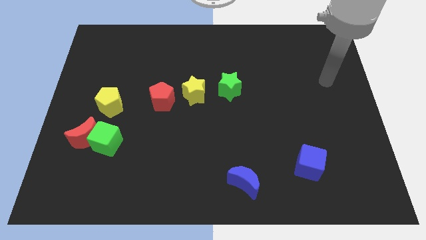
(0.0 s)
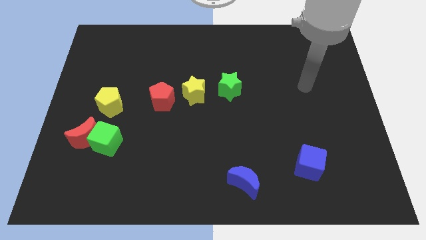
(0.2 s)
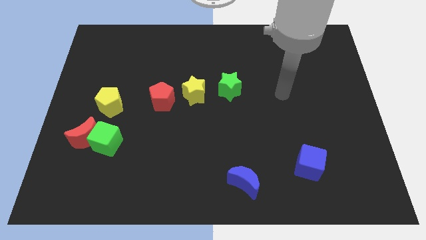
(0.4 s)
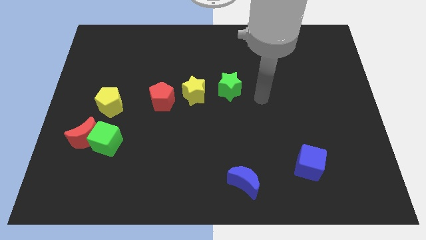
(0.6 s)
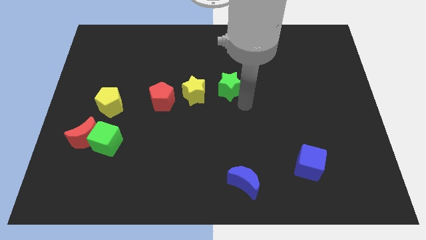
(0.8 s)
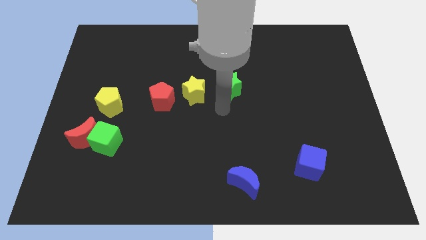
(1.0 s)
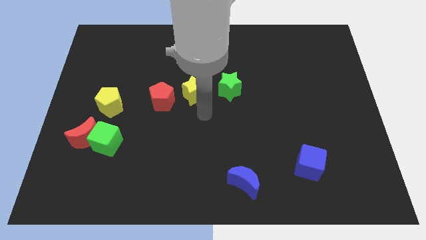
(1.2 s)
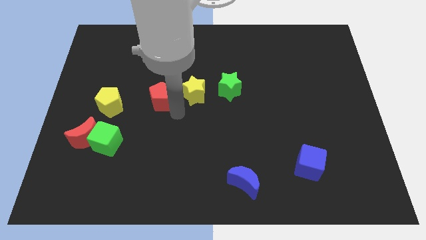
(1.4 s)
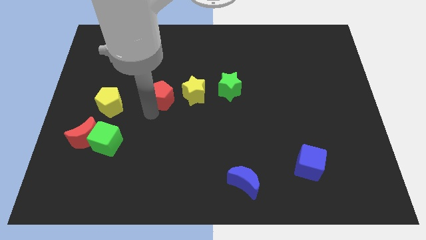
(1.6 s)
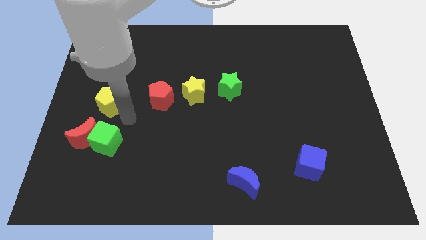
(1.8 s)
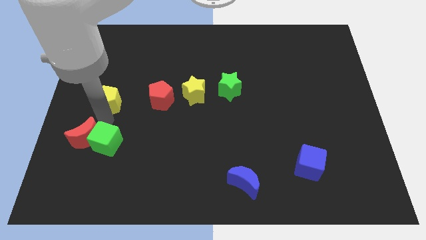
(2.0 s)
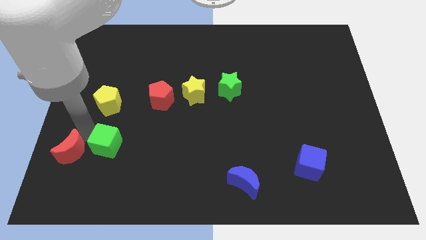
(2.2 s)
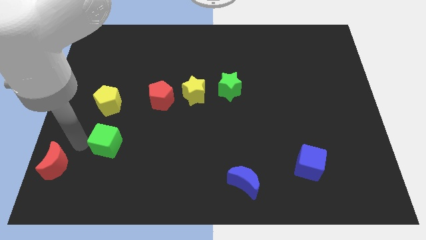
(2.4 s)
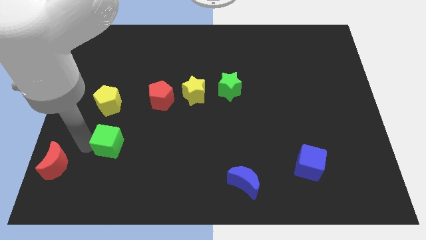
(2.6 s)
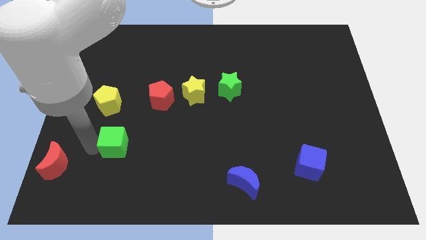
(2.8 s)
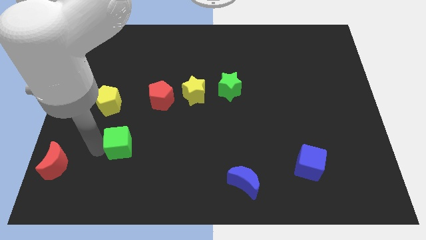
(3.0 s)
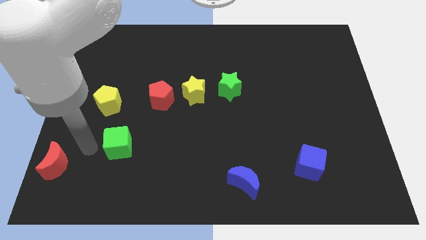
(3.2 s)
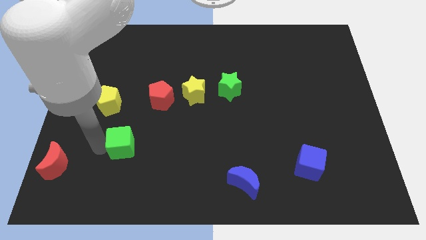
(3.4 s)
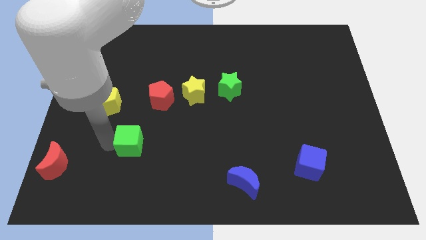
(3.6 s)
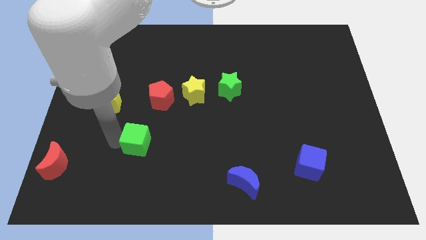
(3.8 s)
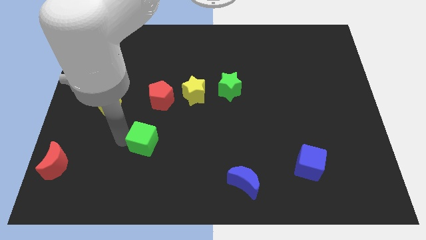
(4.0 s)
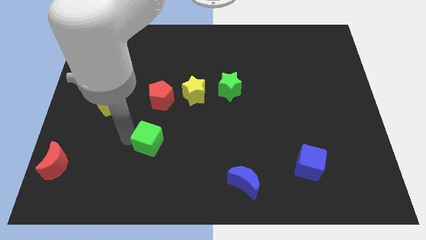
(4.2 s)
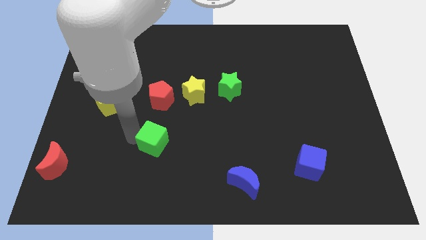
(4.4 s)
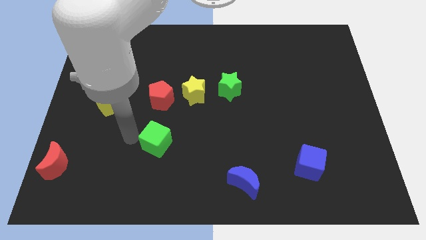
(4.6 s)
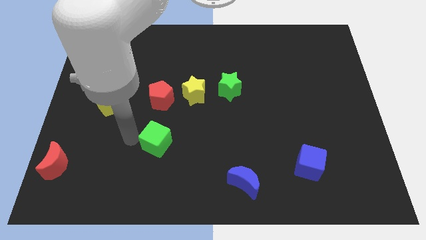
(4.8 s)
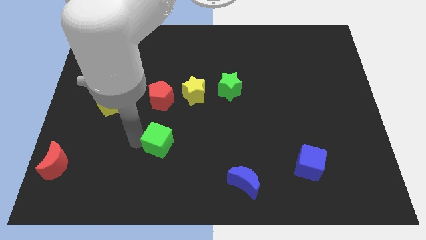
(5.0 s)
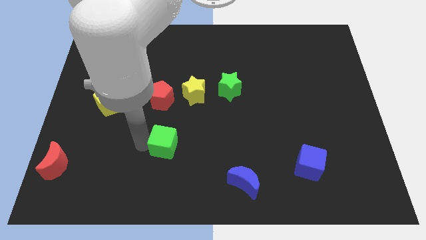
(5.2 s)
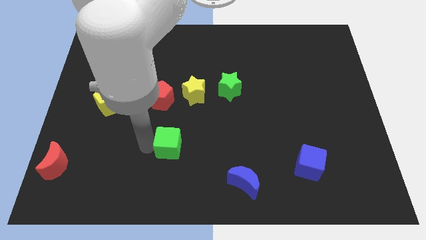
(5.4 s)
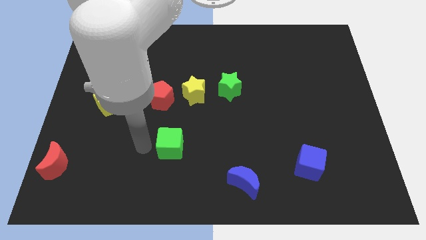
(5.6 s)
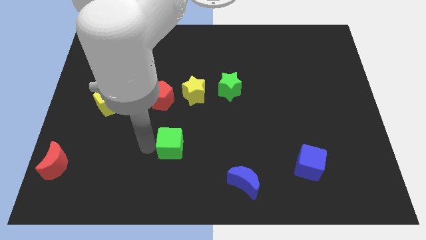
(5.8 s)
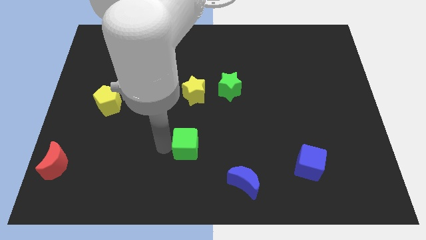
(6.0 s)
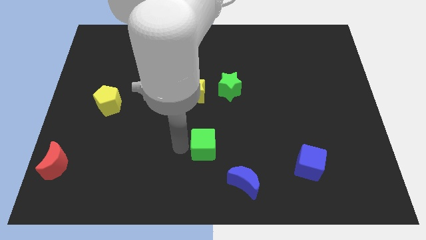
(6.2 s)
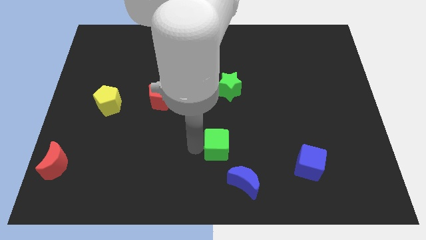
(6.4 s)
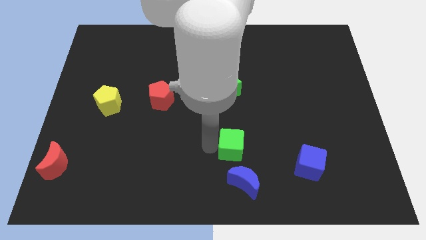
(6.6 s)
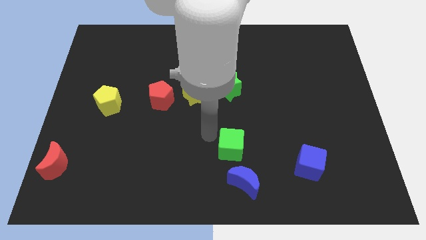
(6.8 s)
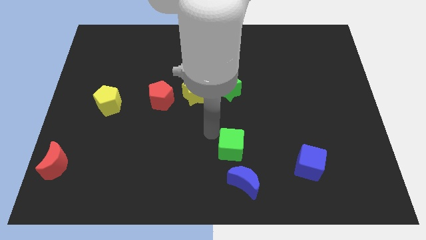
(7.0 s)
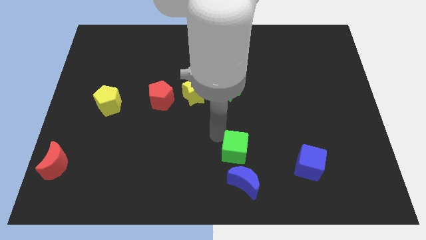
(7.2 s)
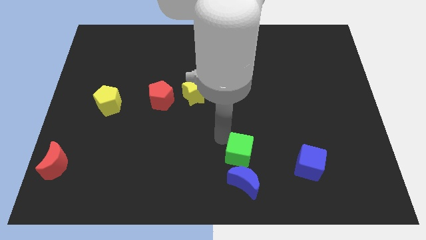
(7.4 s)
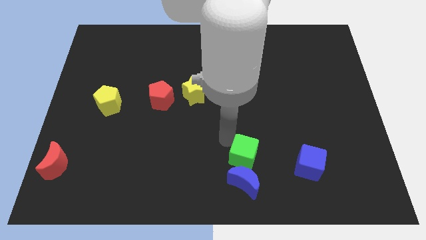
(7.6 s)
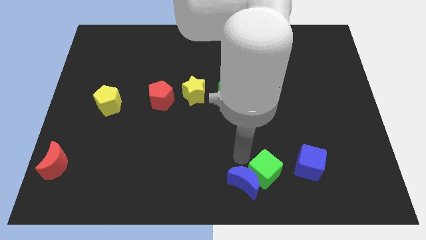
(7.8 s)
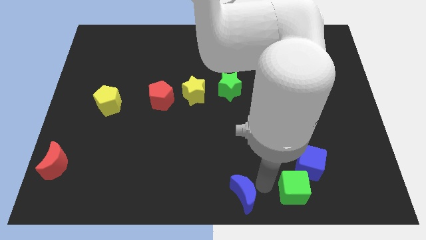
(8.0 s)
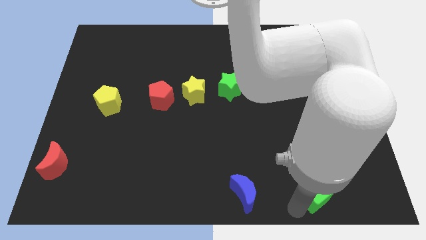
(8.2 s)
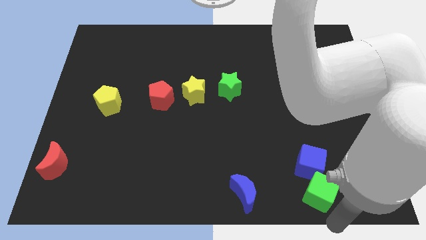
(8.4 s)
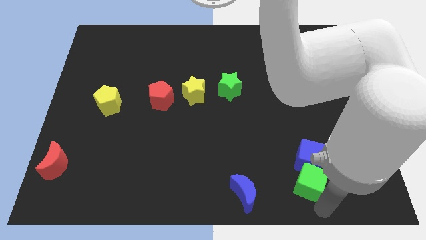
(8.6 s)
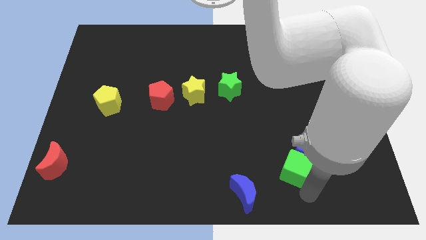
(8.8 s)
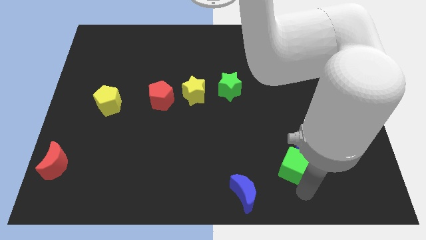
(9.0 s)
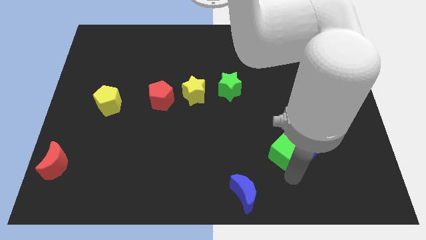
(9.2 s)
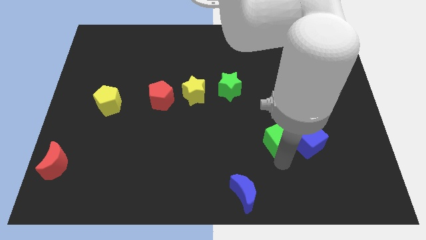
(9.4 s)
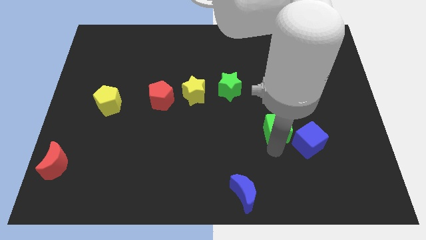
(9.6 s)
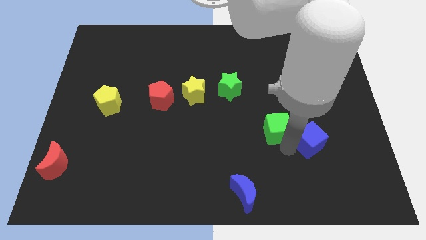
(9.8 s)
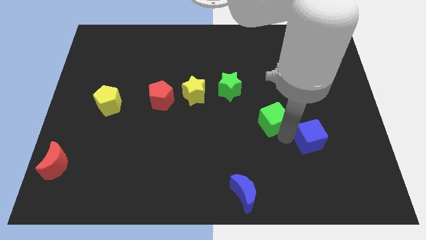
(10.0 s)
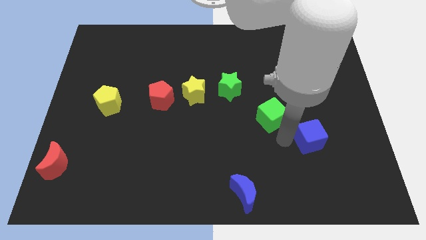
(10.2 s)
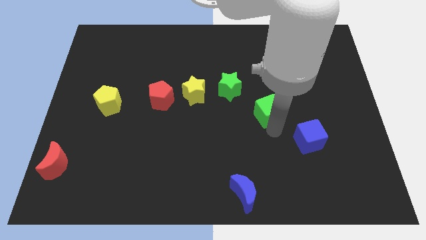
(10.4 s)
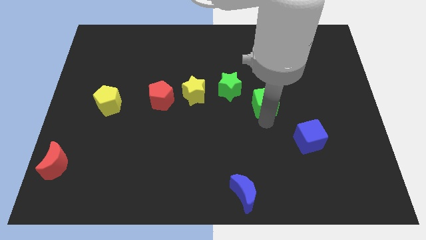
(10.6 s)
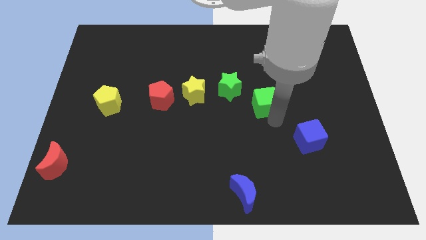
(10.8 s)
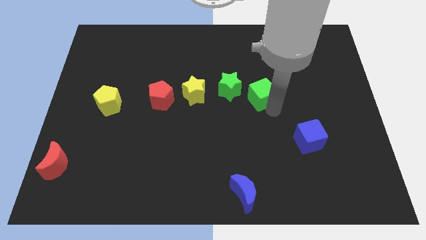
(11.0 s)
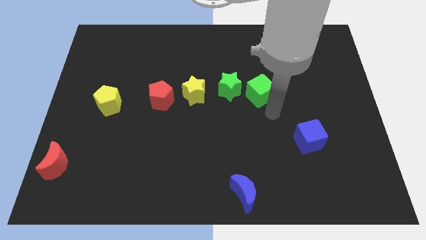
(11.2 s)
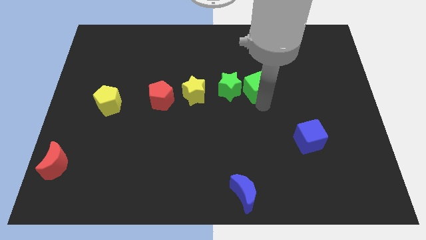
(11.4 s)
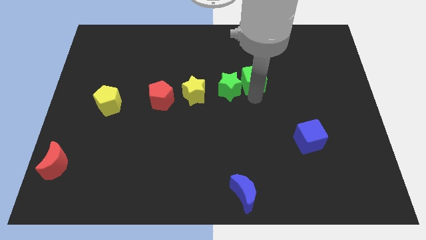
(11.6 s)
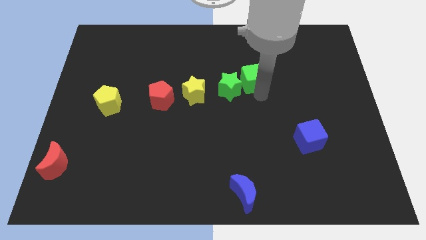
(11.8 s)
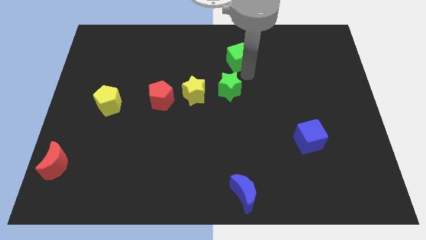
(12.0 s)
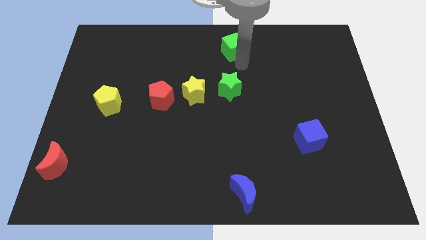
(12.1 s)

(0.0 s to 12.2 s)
slide the green cube to the towards your base

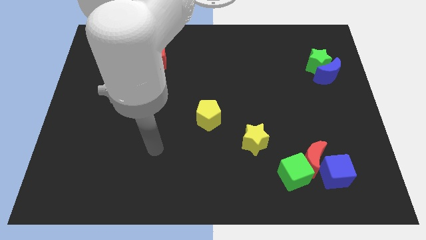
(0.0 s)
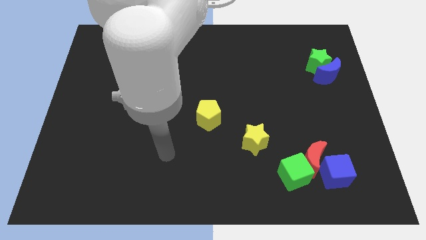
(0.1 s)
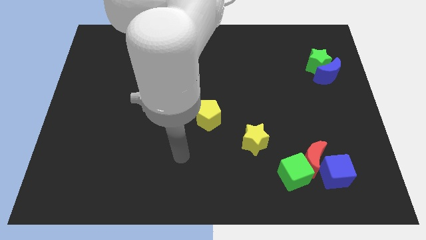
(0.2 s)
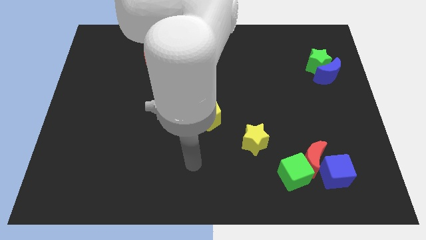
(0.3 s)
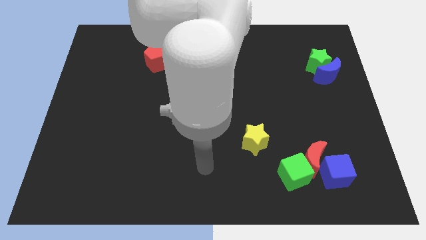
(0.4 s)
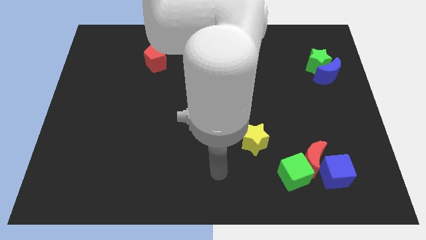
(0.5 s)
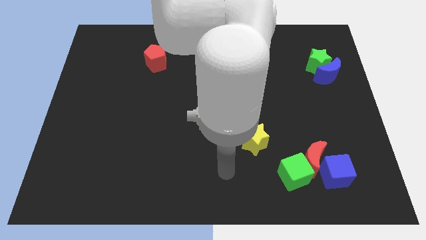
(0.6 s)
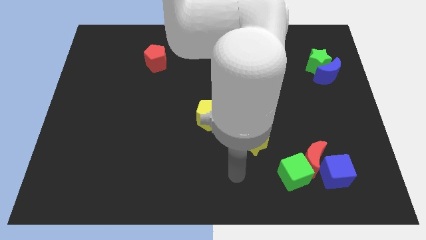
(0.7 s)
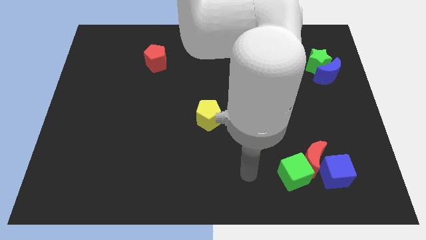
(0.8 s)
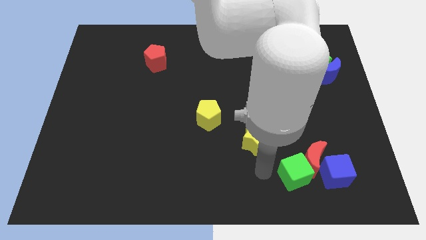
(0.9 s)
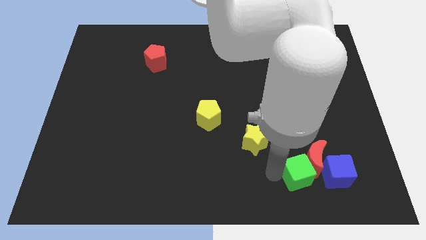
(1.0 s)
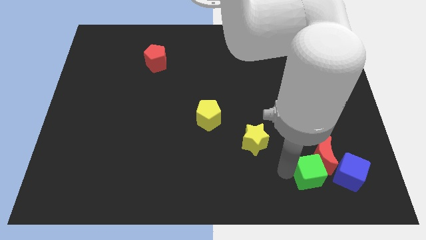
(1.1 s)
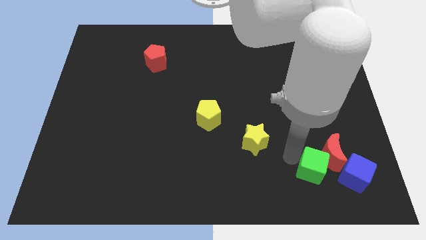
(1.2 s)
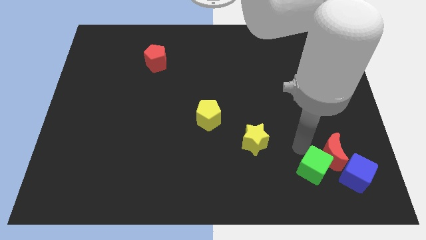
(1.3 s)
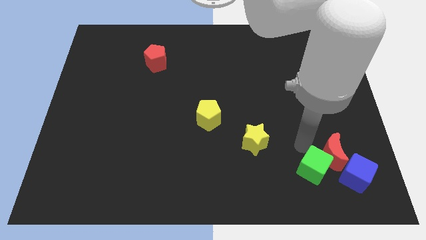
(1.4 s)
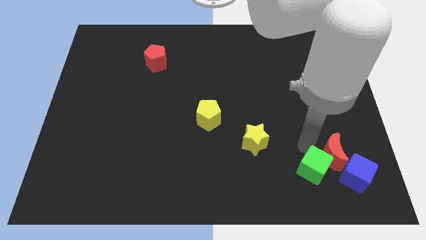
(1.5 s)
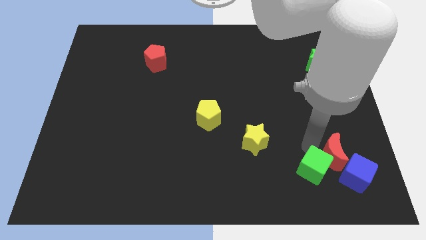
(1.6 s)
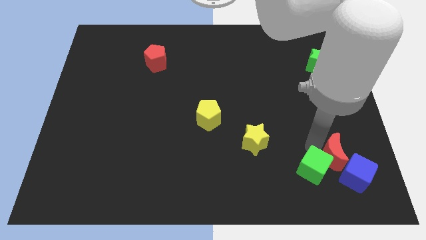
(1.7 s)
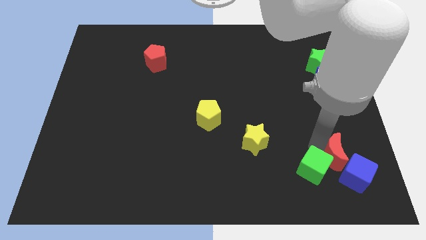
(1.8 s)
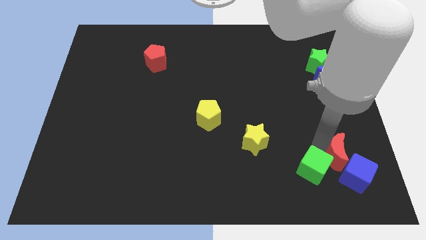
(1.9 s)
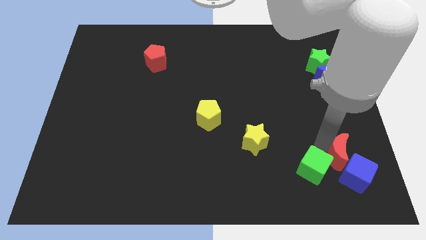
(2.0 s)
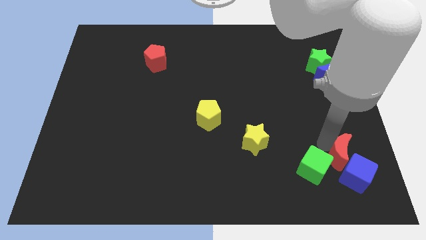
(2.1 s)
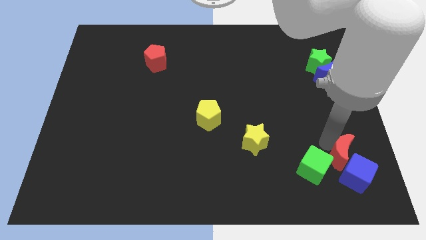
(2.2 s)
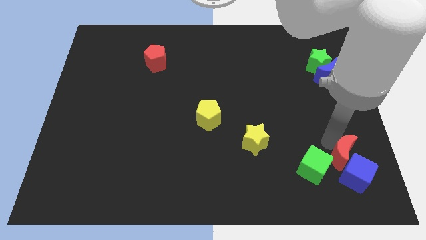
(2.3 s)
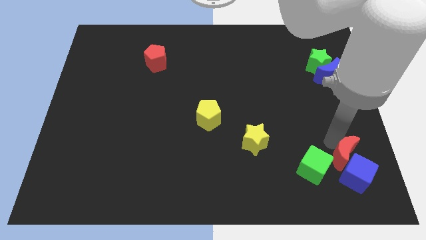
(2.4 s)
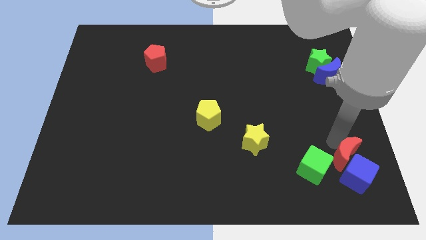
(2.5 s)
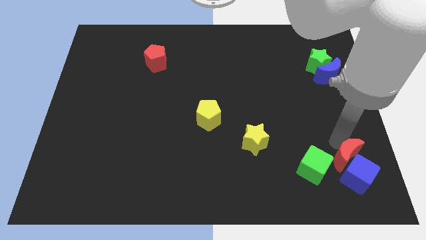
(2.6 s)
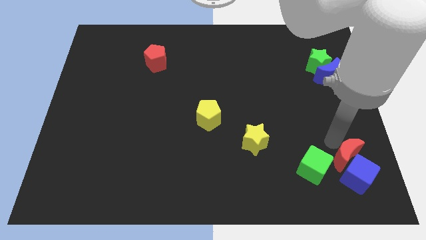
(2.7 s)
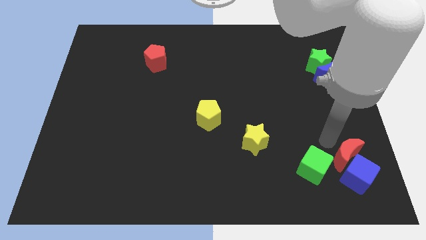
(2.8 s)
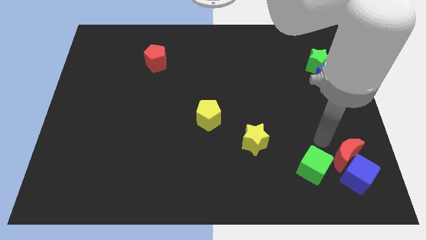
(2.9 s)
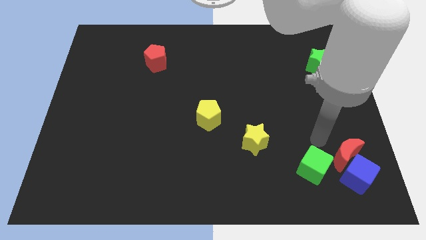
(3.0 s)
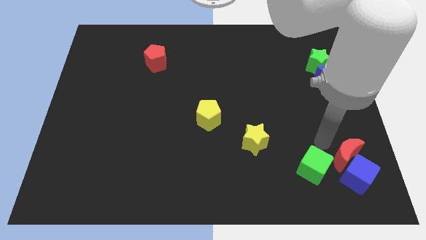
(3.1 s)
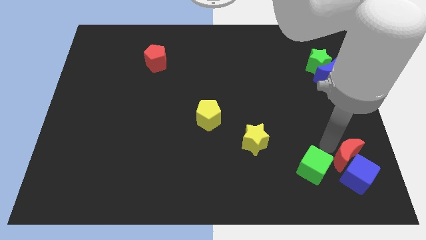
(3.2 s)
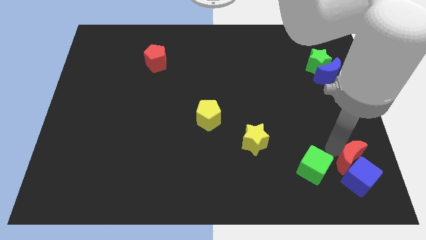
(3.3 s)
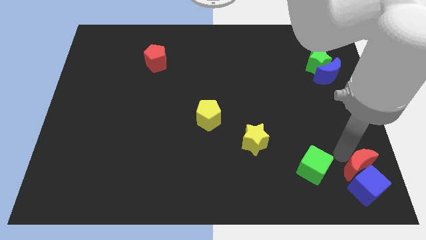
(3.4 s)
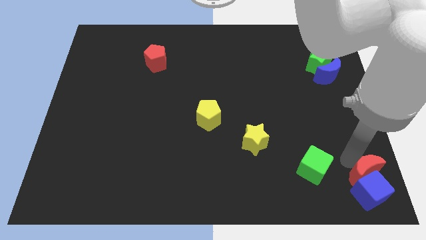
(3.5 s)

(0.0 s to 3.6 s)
push the red moon to the lower right corner
